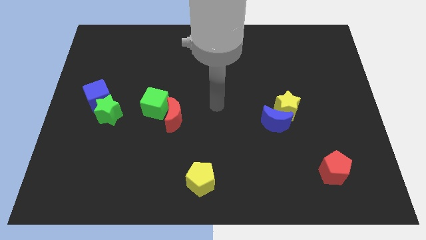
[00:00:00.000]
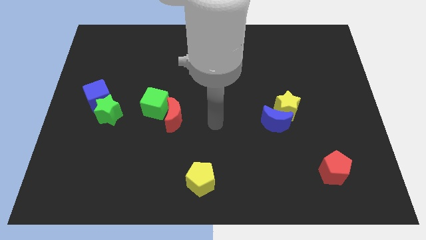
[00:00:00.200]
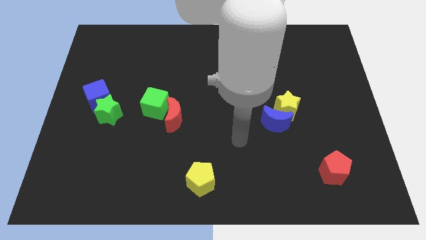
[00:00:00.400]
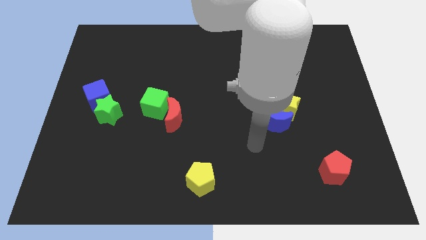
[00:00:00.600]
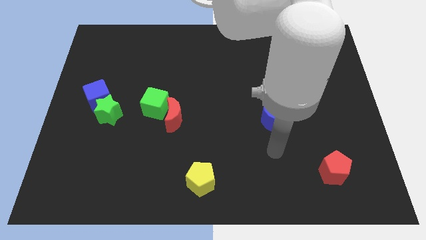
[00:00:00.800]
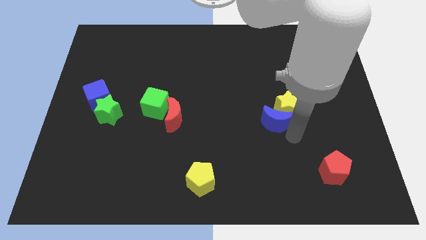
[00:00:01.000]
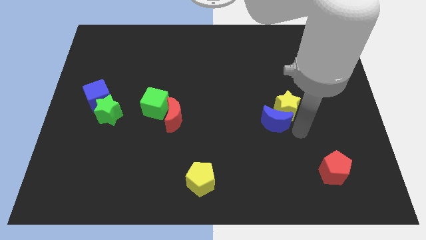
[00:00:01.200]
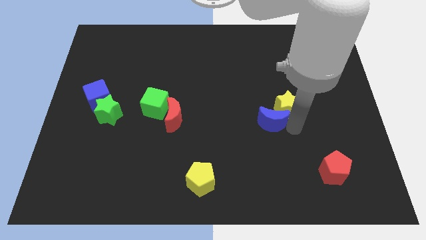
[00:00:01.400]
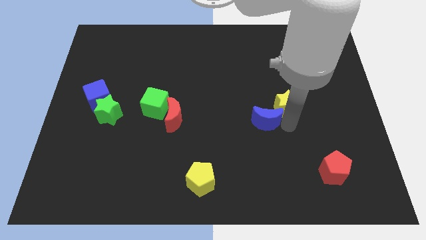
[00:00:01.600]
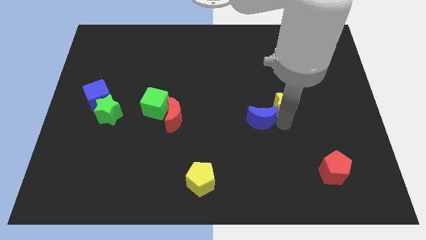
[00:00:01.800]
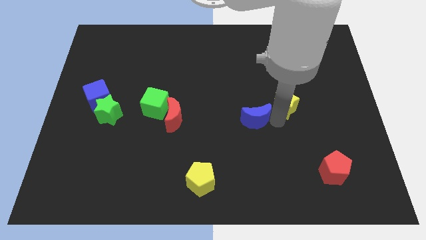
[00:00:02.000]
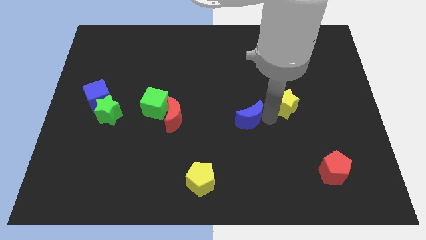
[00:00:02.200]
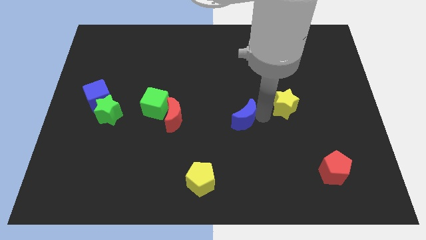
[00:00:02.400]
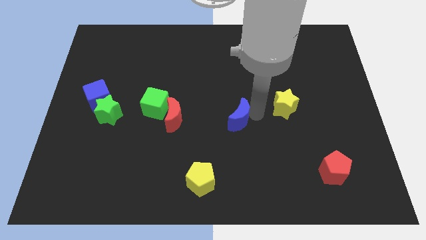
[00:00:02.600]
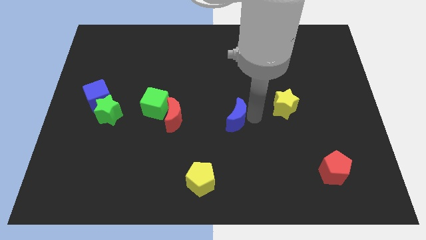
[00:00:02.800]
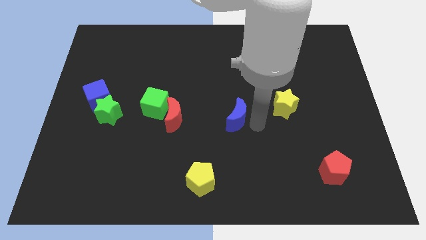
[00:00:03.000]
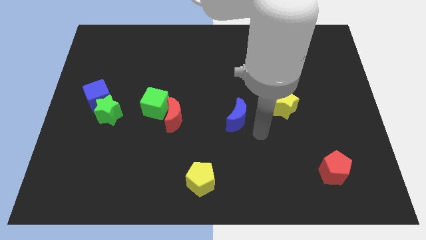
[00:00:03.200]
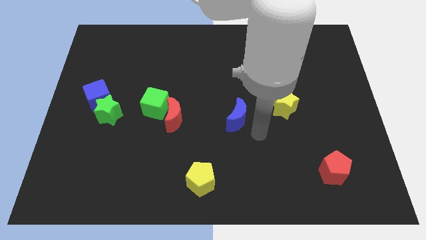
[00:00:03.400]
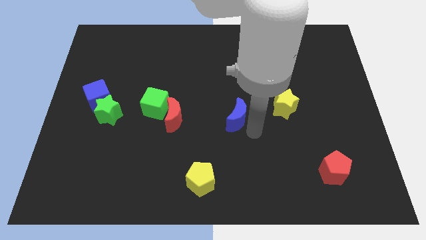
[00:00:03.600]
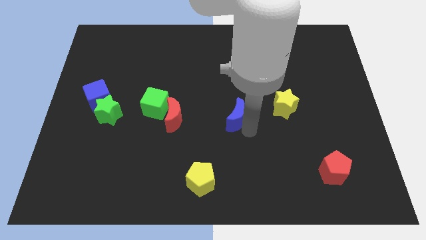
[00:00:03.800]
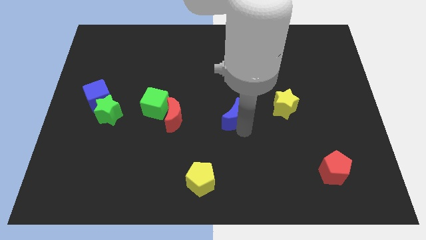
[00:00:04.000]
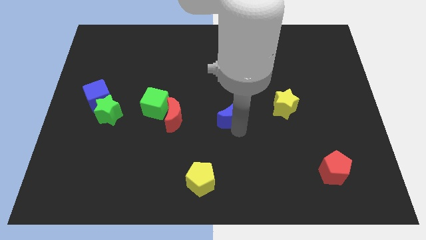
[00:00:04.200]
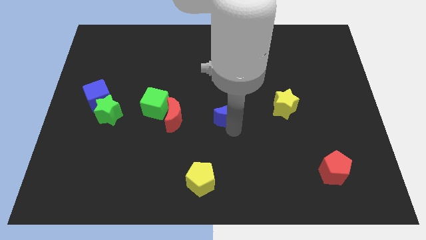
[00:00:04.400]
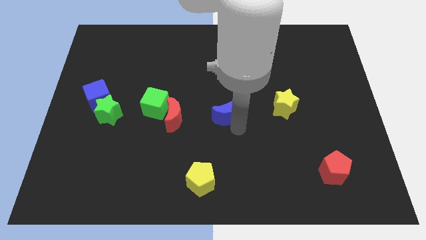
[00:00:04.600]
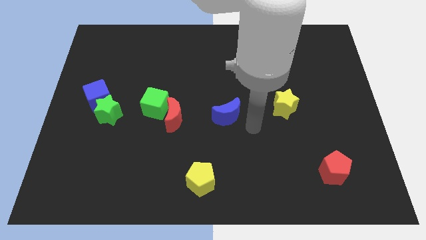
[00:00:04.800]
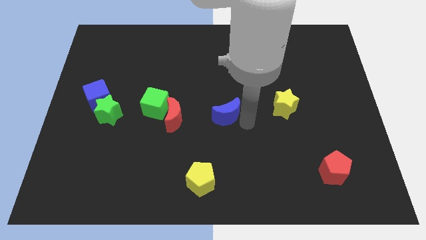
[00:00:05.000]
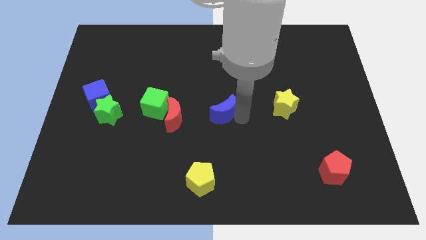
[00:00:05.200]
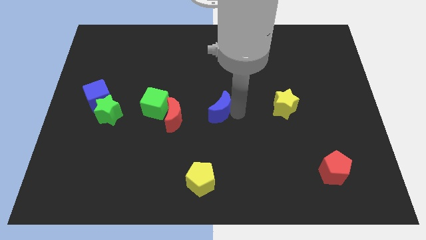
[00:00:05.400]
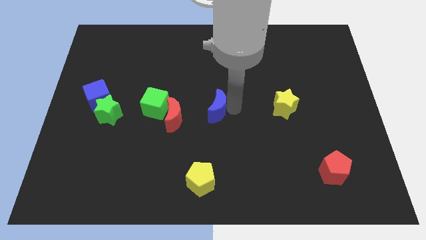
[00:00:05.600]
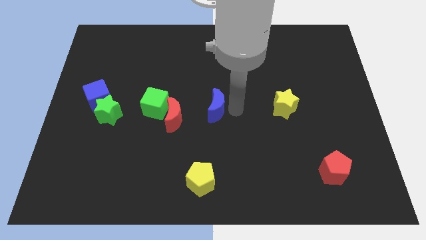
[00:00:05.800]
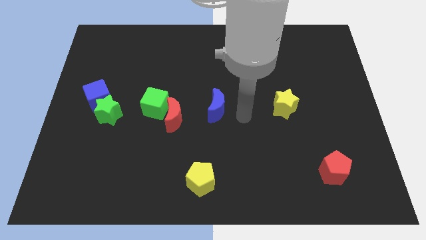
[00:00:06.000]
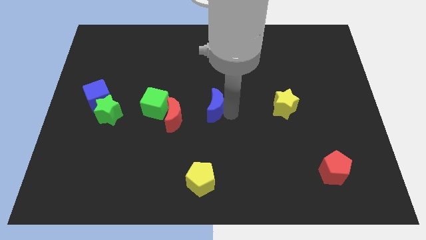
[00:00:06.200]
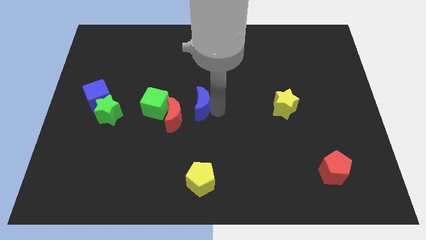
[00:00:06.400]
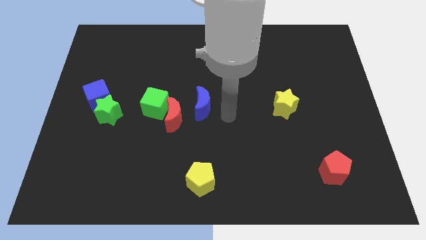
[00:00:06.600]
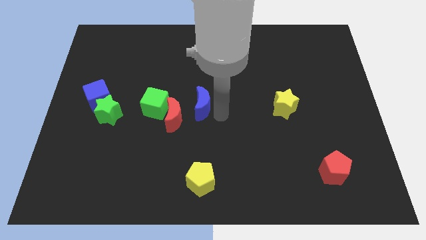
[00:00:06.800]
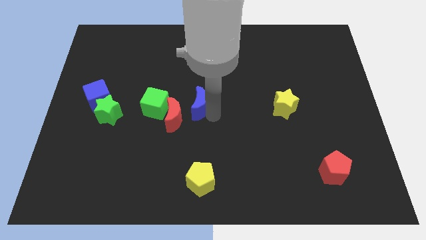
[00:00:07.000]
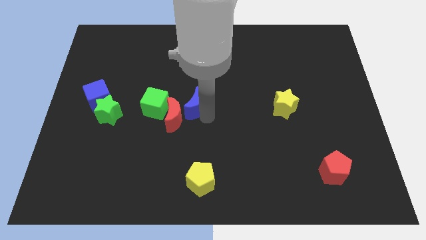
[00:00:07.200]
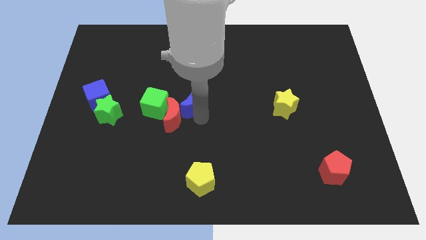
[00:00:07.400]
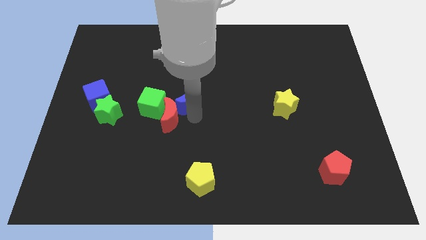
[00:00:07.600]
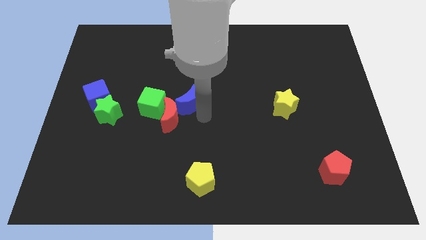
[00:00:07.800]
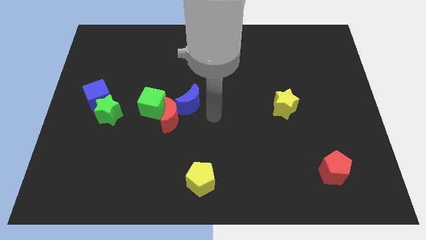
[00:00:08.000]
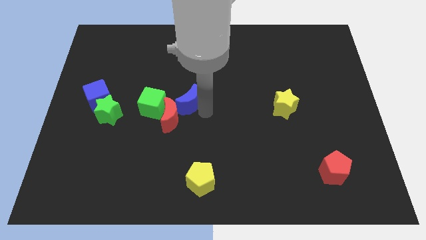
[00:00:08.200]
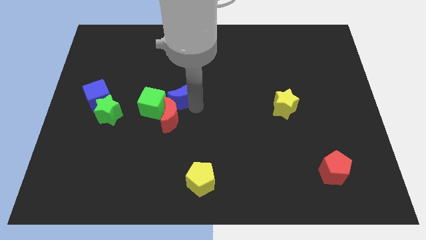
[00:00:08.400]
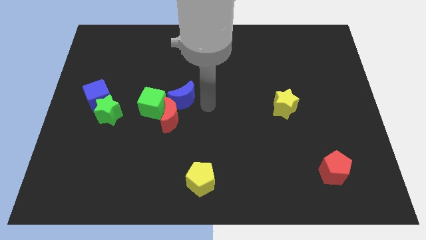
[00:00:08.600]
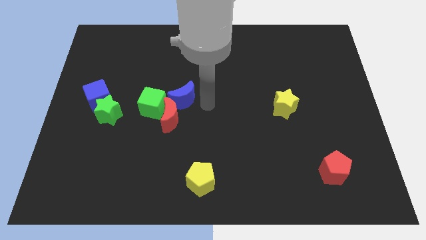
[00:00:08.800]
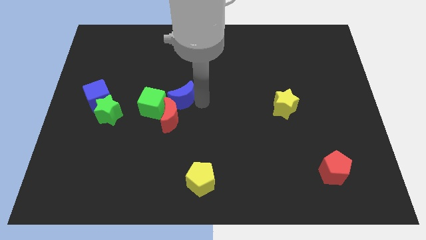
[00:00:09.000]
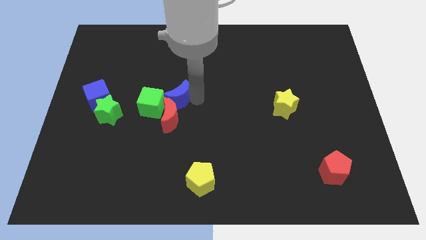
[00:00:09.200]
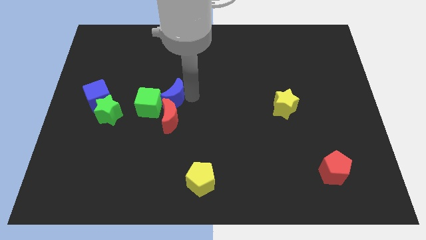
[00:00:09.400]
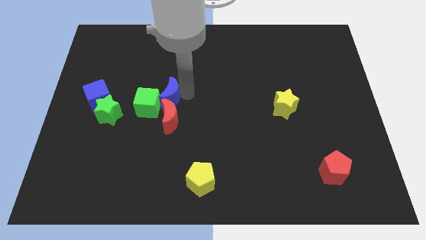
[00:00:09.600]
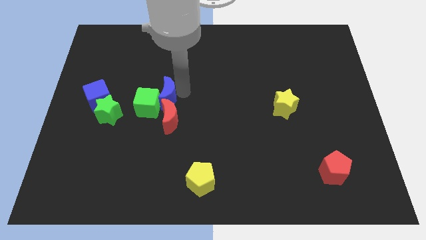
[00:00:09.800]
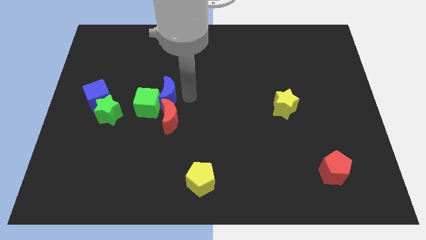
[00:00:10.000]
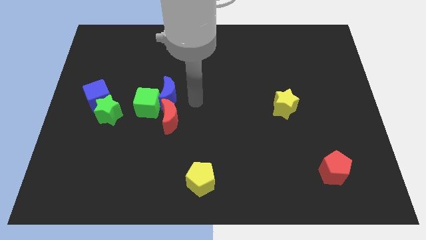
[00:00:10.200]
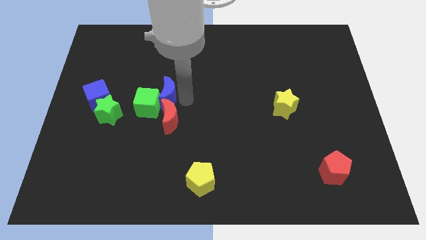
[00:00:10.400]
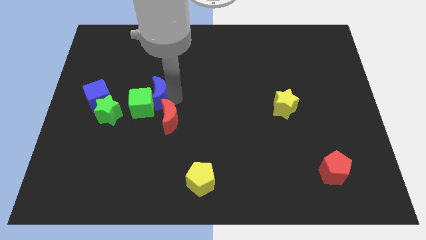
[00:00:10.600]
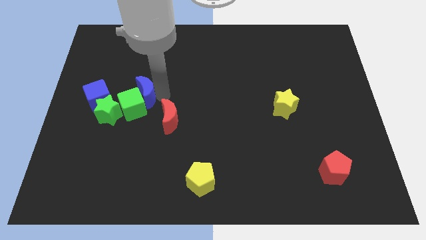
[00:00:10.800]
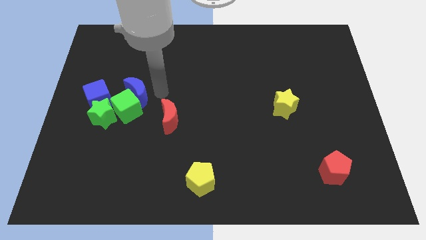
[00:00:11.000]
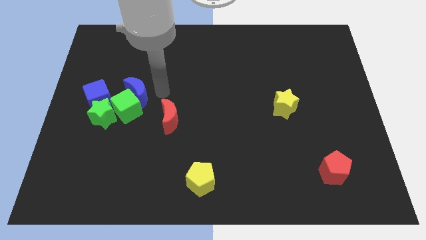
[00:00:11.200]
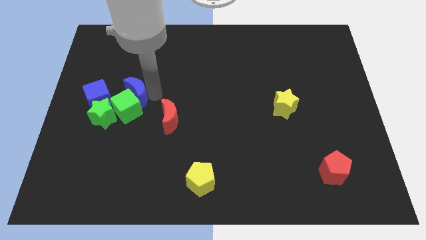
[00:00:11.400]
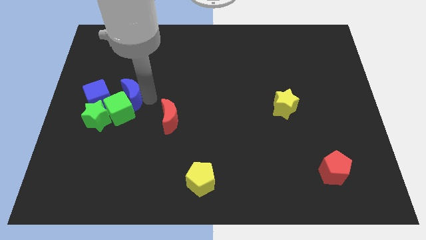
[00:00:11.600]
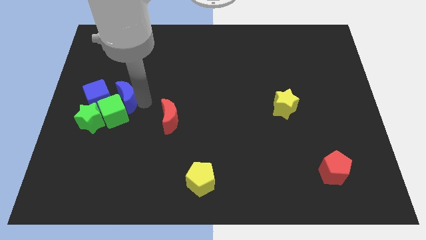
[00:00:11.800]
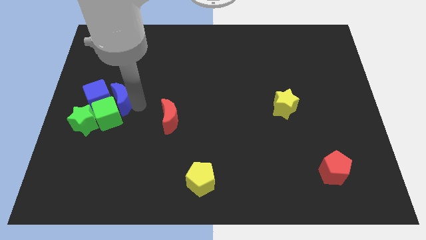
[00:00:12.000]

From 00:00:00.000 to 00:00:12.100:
slide the blue moon to the blue cube
